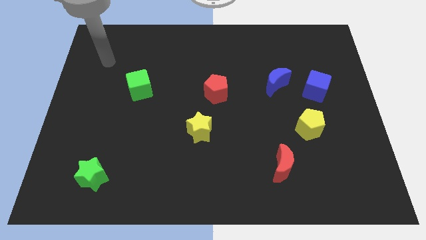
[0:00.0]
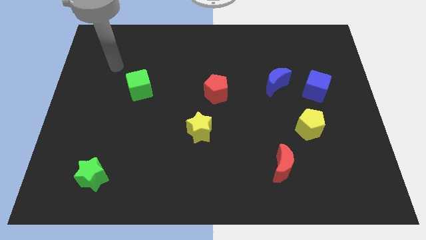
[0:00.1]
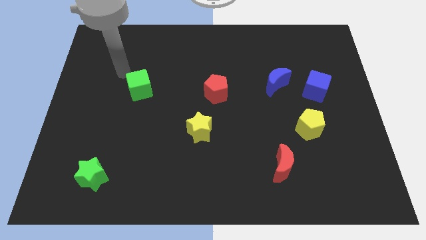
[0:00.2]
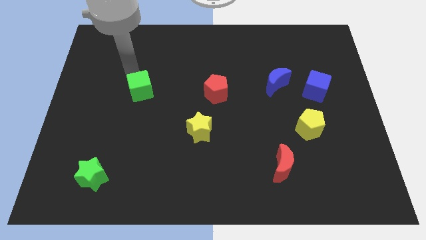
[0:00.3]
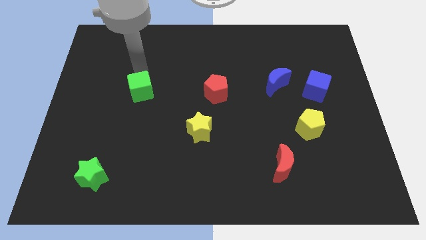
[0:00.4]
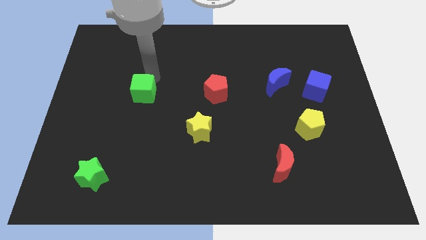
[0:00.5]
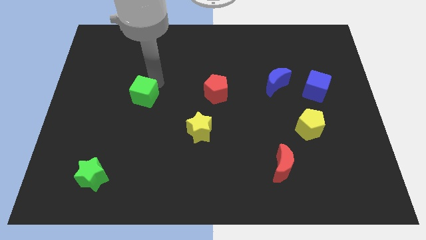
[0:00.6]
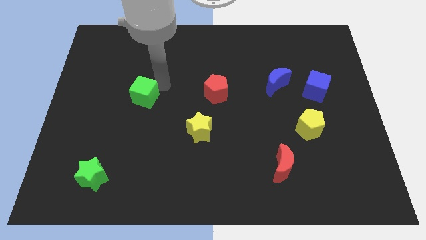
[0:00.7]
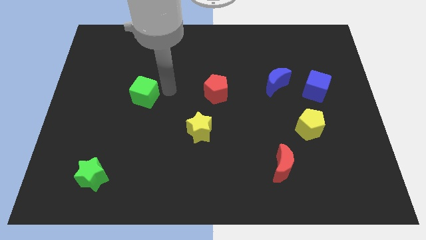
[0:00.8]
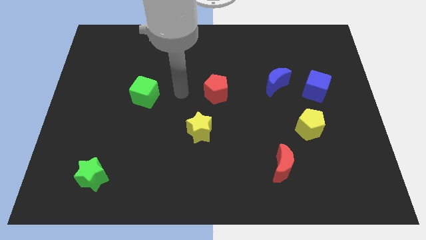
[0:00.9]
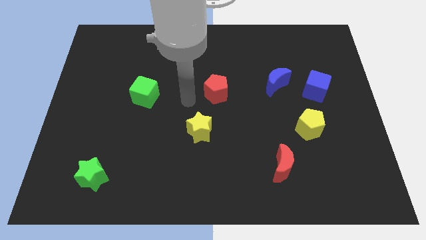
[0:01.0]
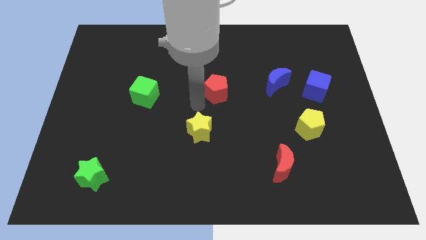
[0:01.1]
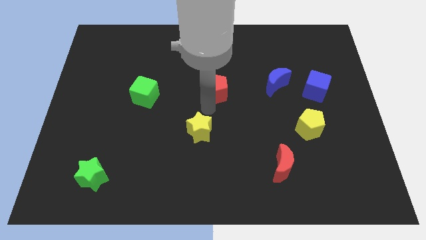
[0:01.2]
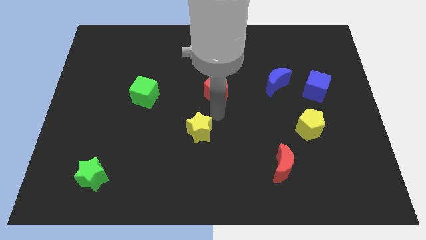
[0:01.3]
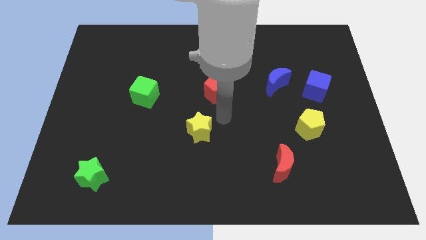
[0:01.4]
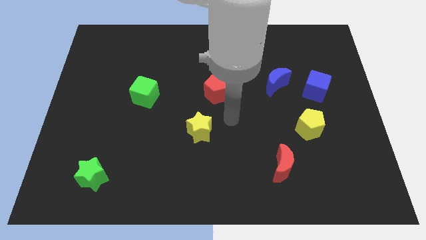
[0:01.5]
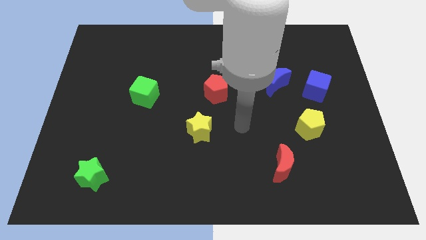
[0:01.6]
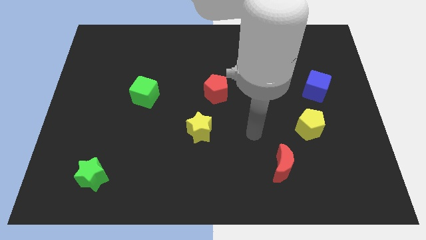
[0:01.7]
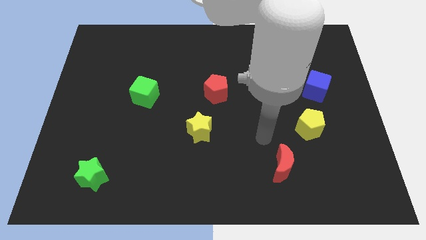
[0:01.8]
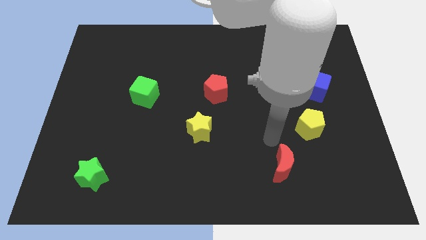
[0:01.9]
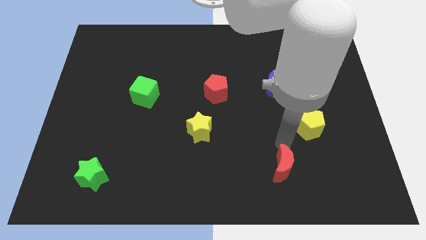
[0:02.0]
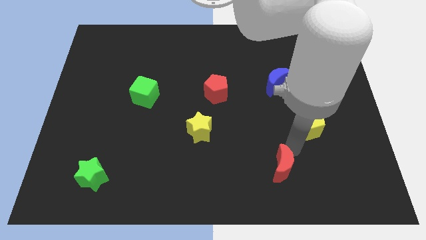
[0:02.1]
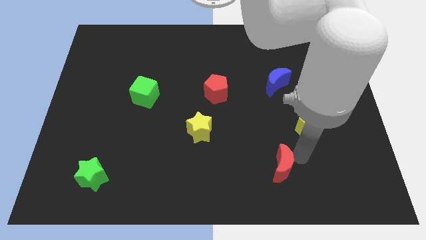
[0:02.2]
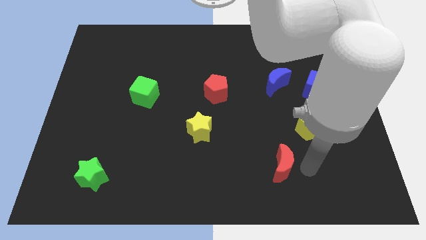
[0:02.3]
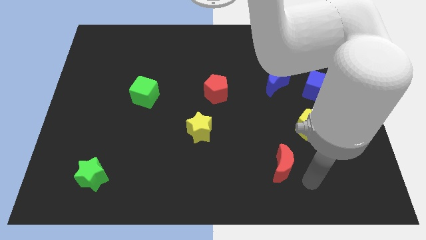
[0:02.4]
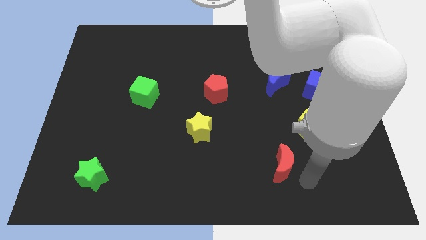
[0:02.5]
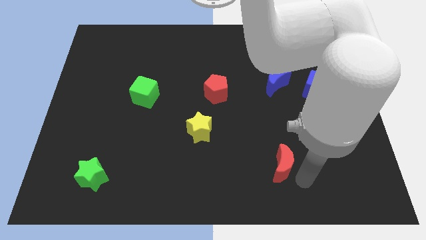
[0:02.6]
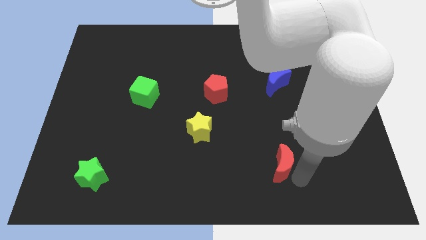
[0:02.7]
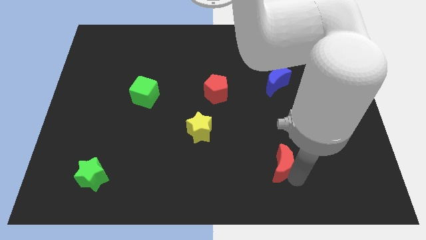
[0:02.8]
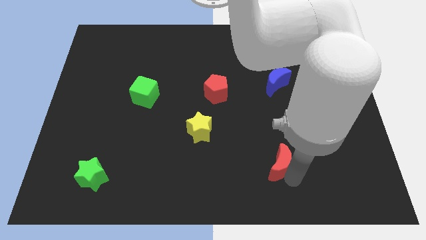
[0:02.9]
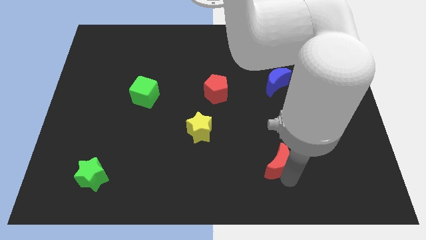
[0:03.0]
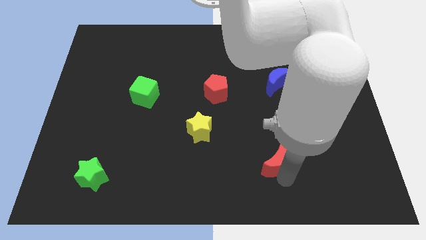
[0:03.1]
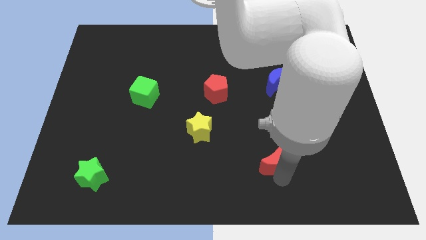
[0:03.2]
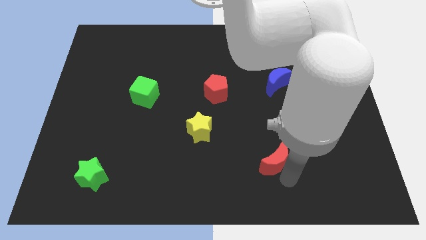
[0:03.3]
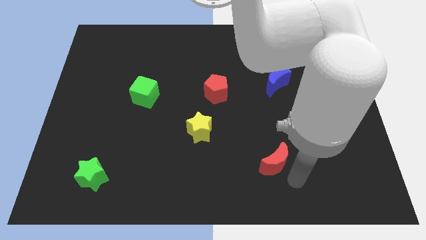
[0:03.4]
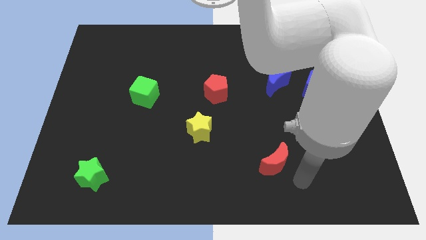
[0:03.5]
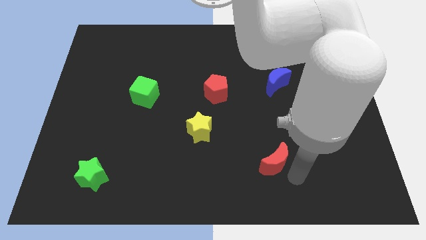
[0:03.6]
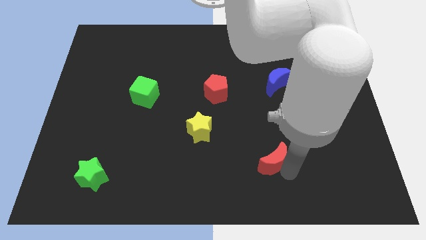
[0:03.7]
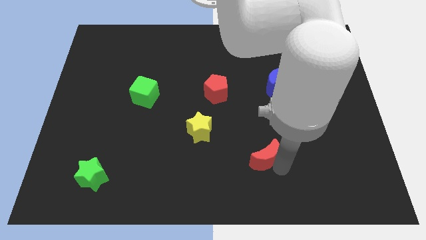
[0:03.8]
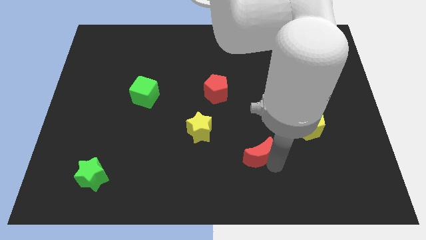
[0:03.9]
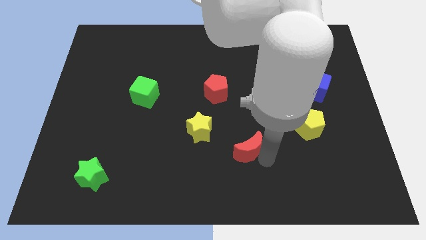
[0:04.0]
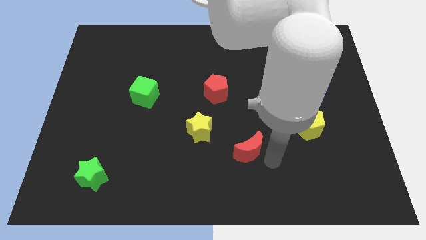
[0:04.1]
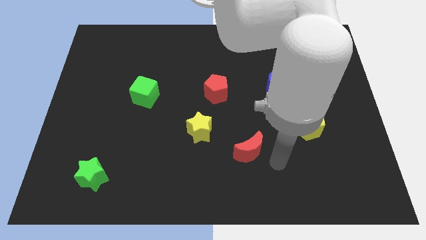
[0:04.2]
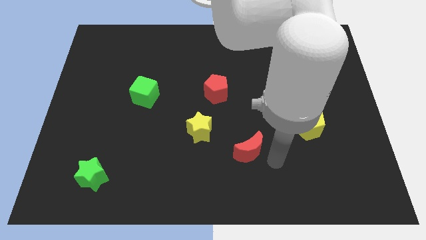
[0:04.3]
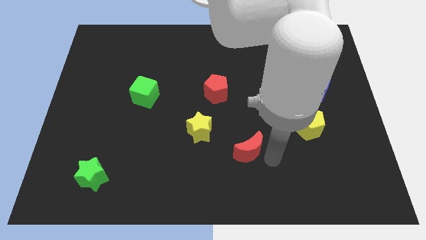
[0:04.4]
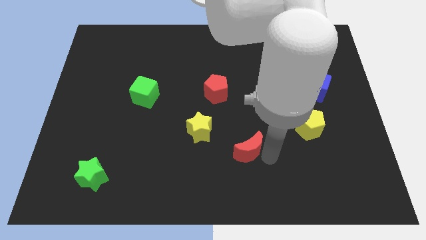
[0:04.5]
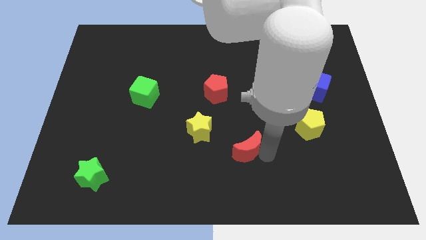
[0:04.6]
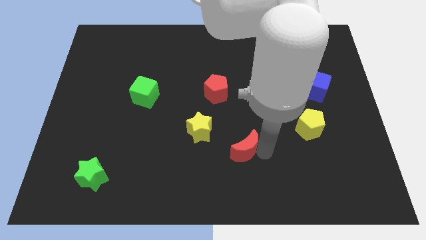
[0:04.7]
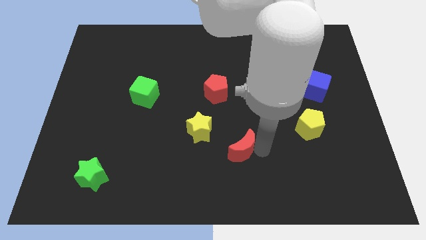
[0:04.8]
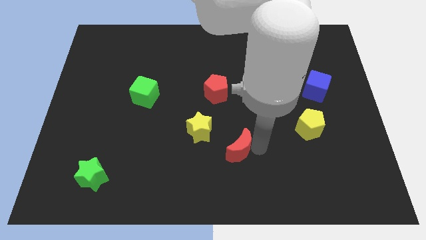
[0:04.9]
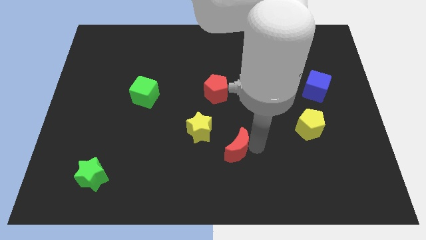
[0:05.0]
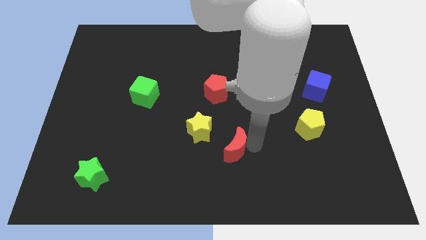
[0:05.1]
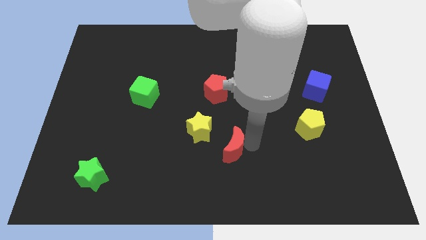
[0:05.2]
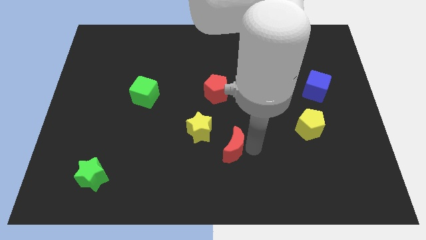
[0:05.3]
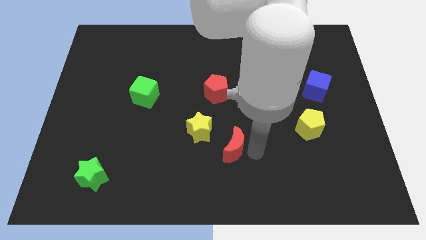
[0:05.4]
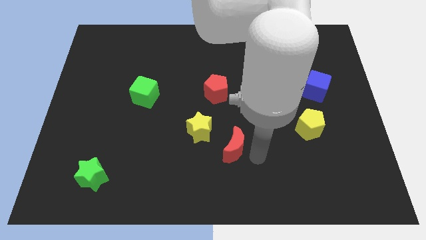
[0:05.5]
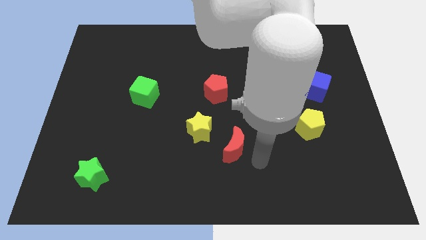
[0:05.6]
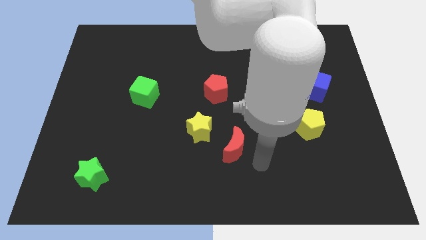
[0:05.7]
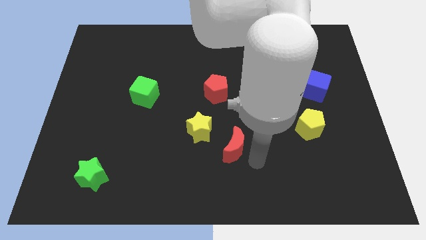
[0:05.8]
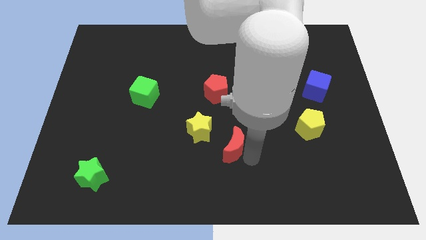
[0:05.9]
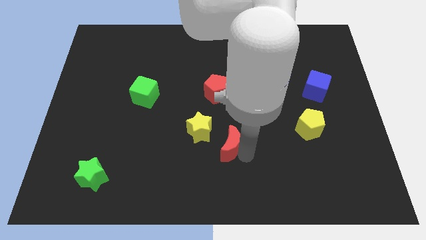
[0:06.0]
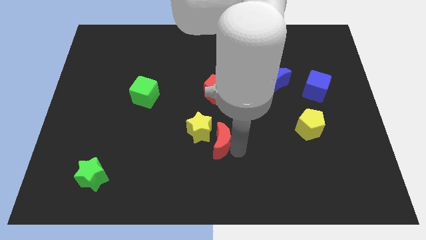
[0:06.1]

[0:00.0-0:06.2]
push the red moon next to the yellow star
